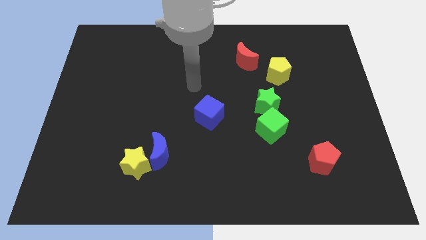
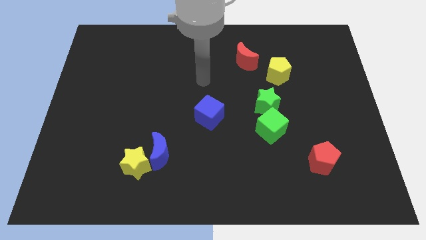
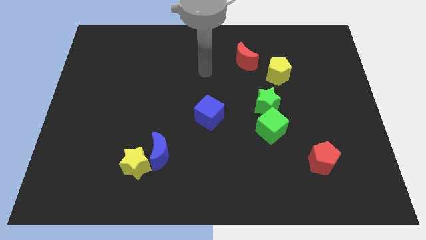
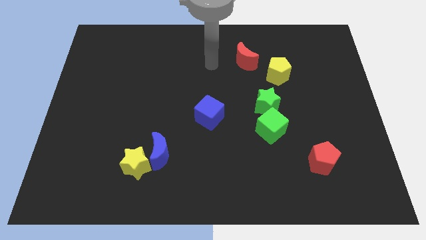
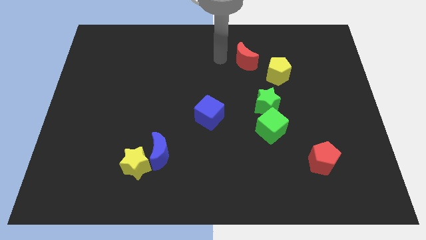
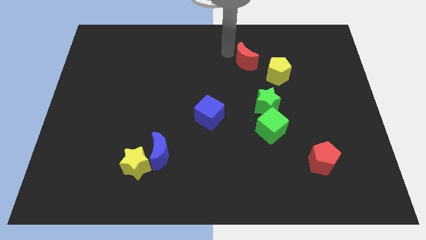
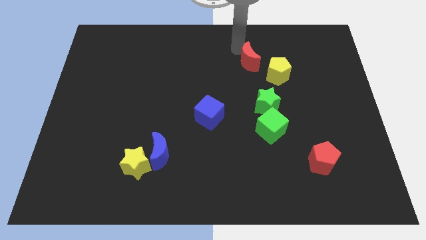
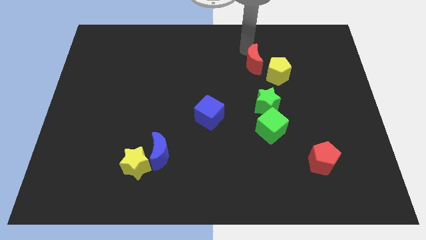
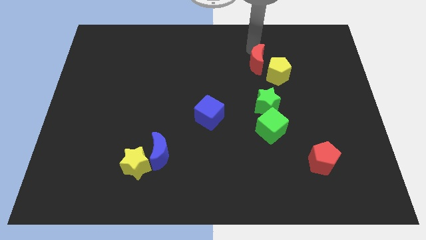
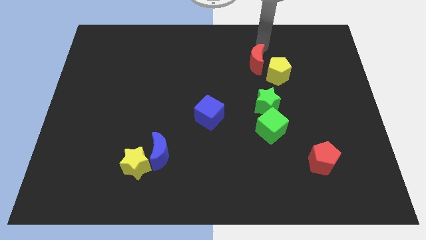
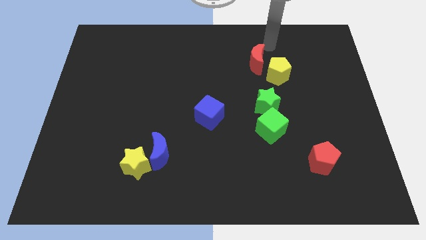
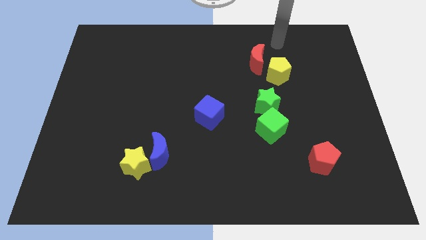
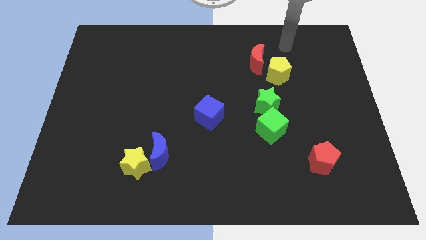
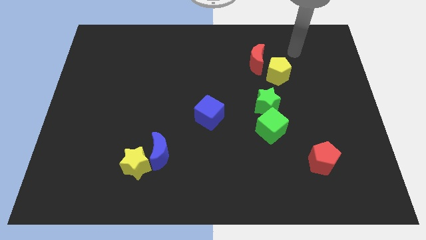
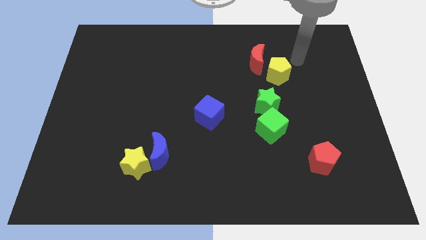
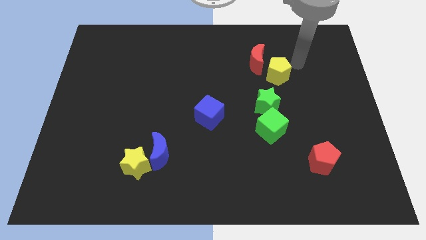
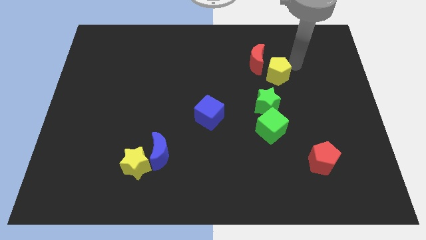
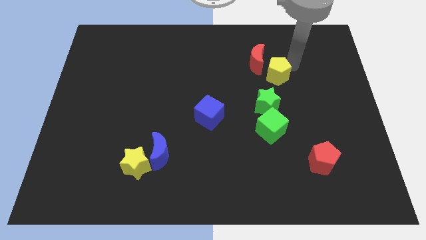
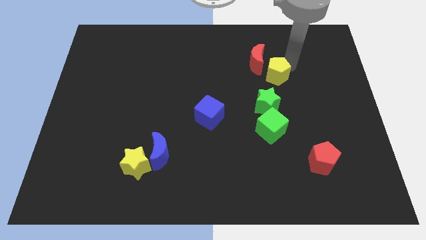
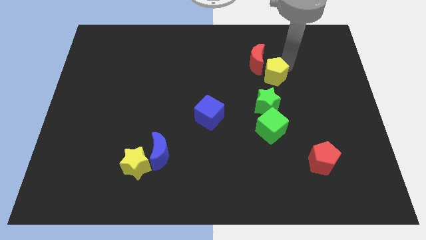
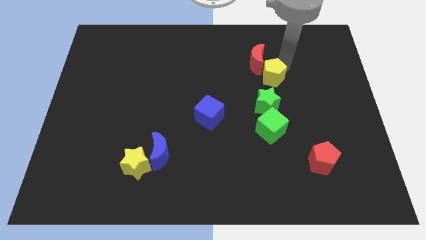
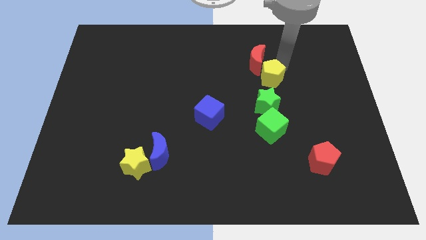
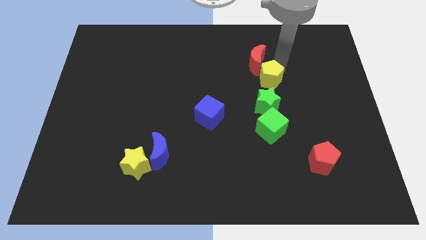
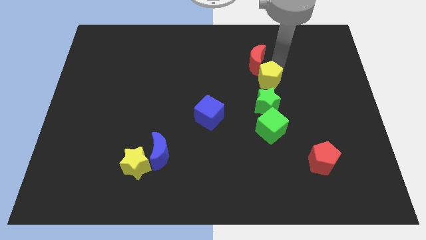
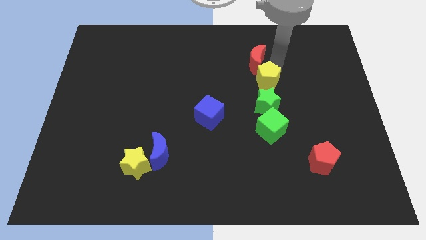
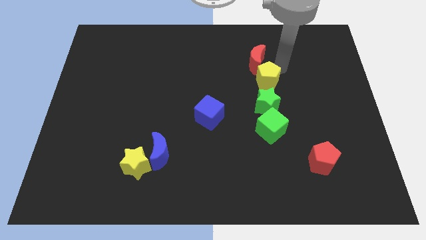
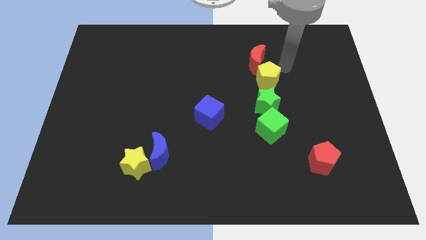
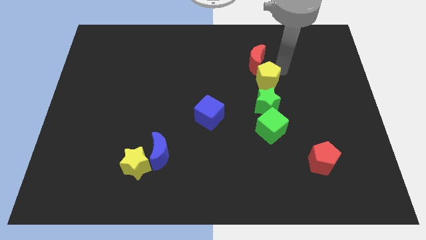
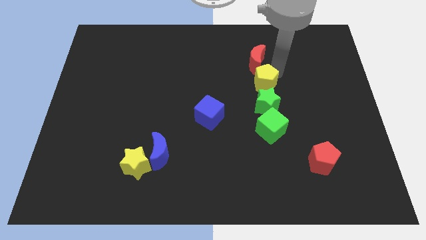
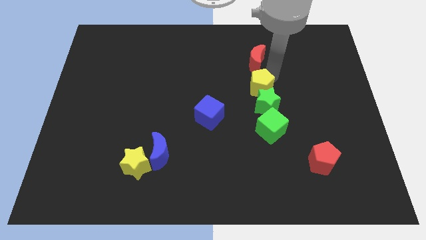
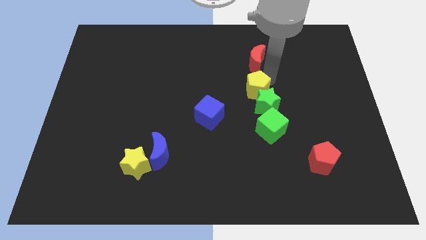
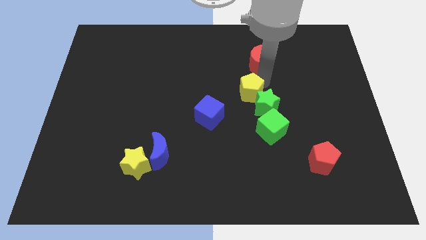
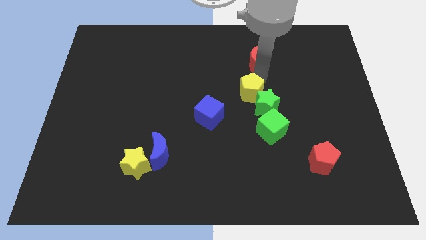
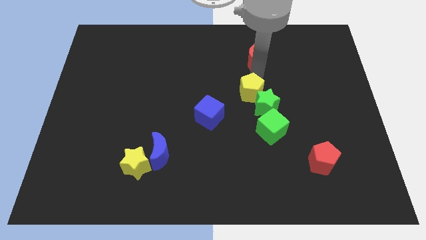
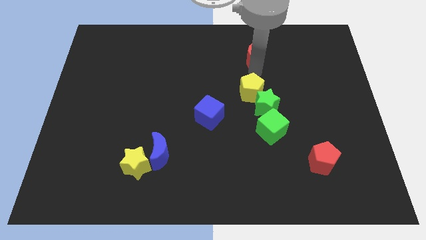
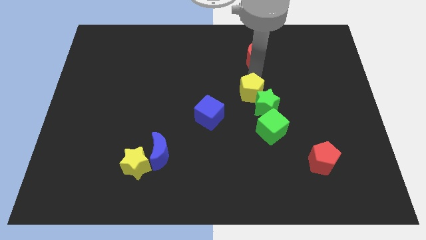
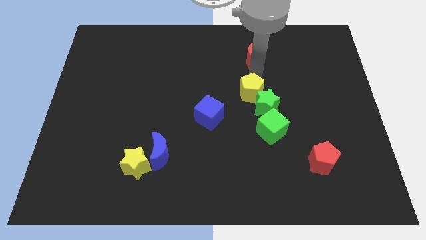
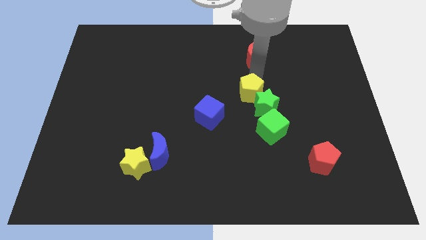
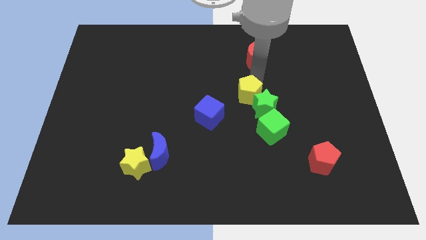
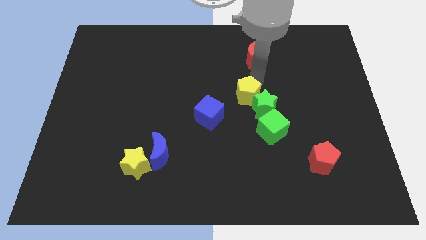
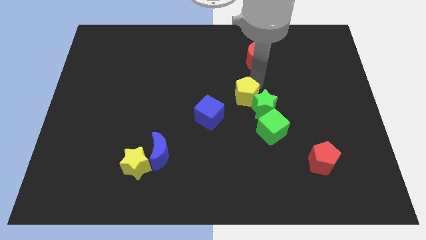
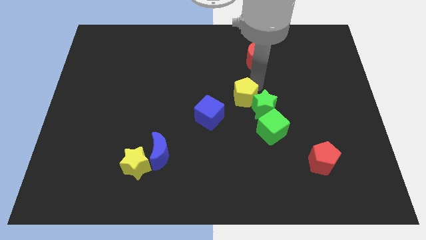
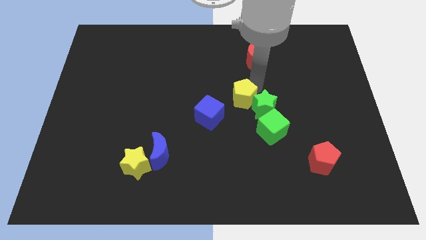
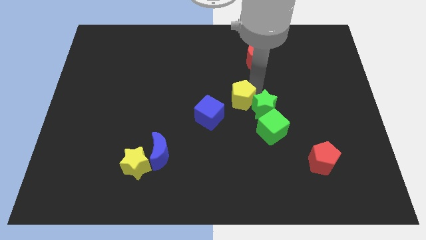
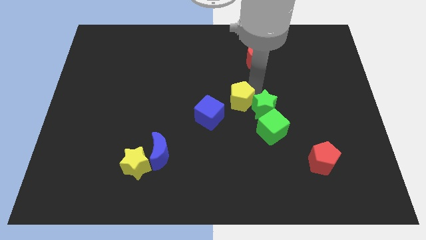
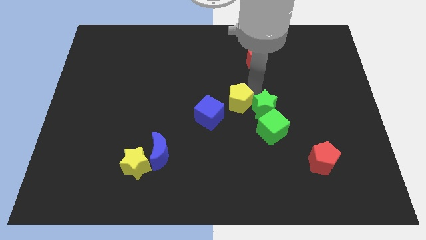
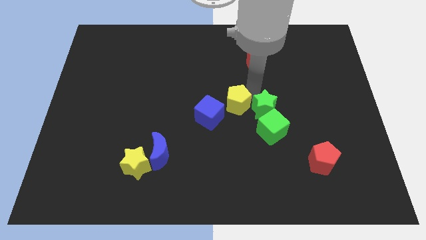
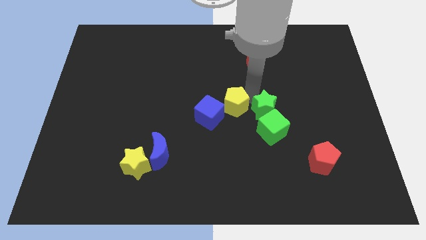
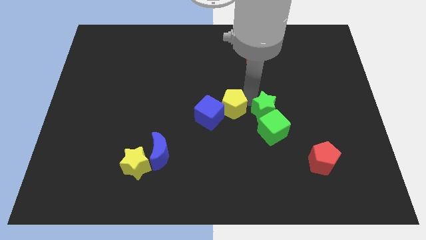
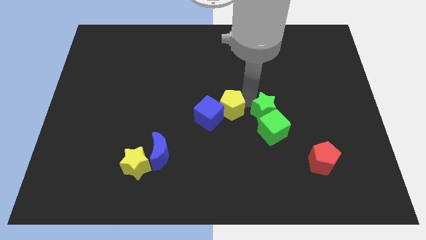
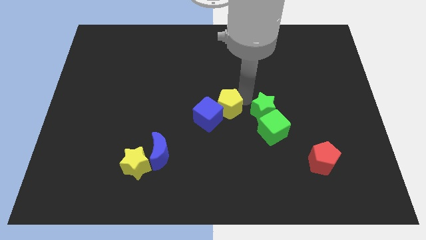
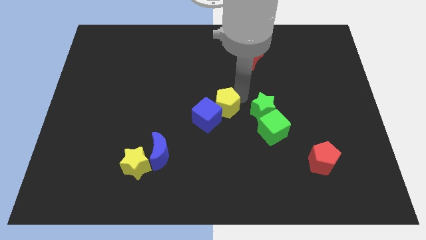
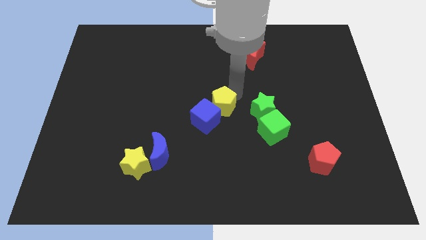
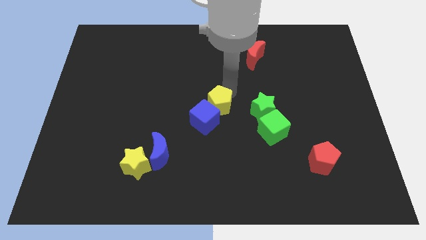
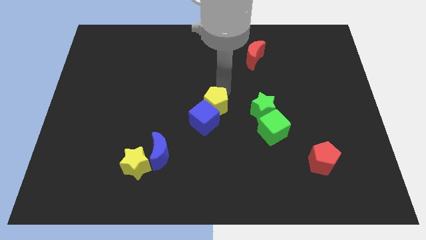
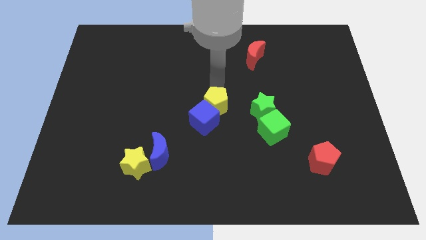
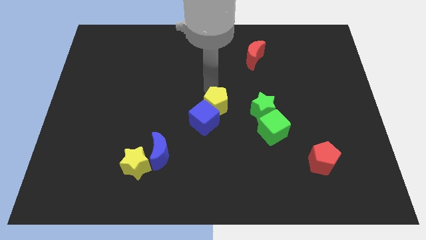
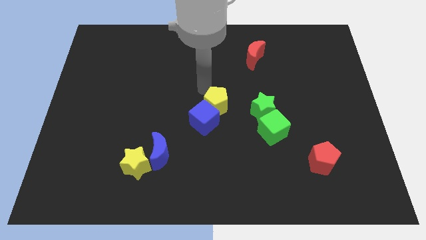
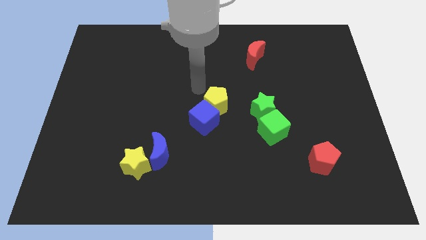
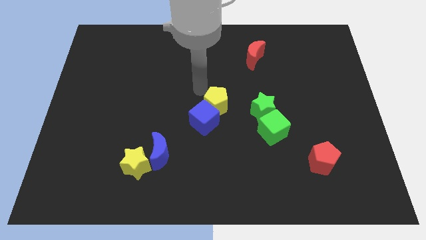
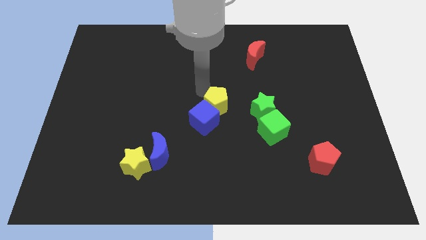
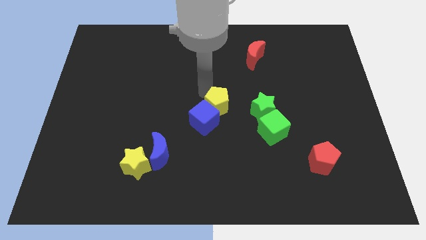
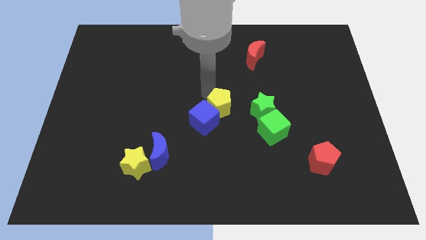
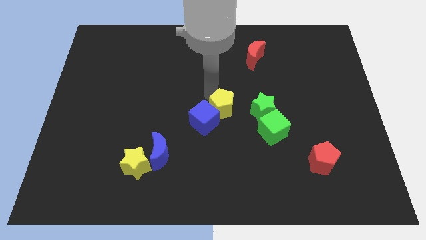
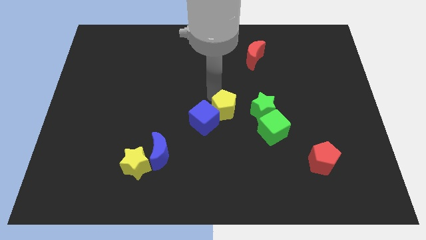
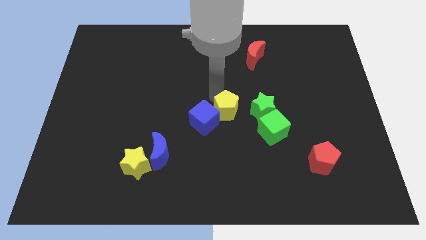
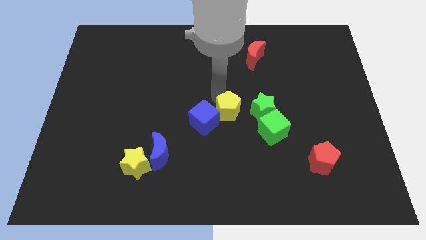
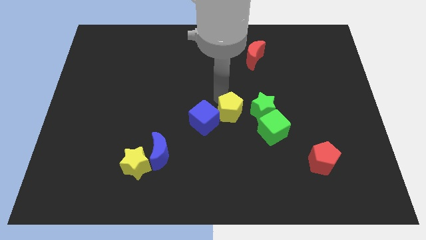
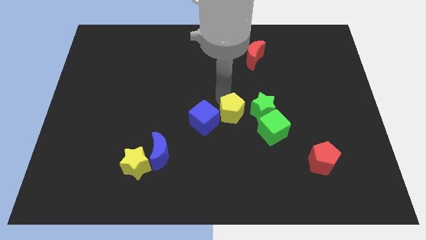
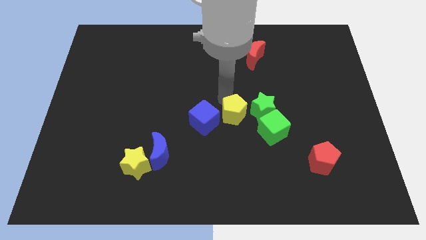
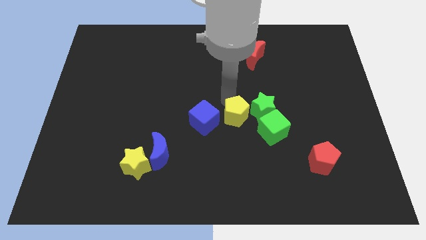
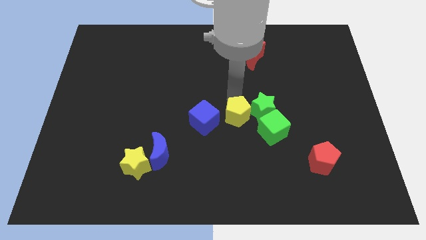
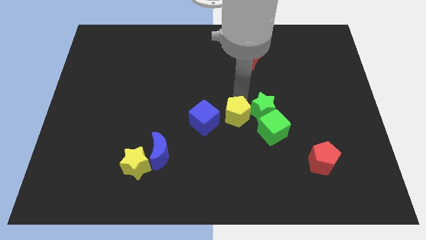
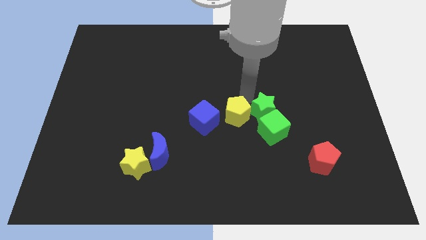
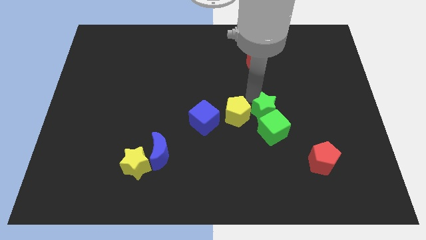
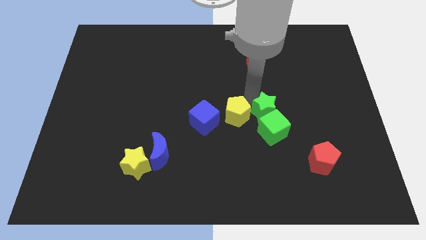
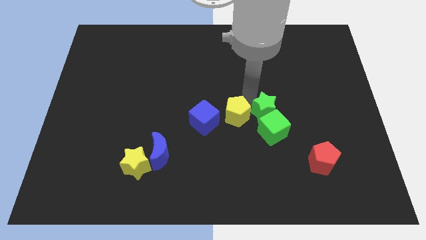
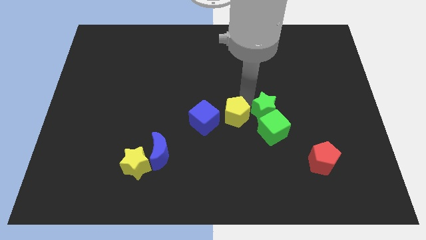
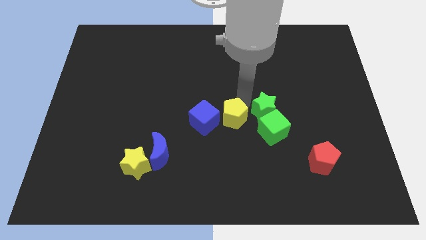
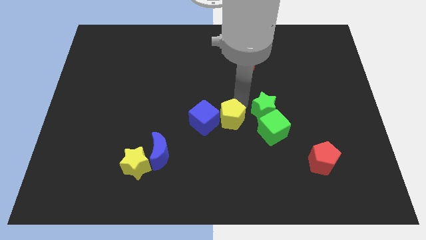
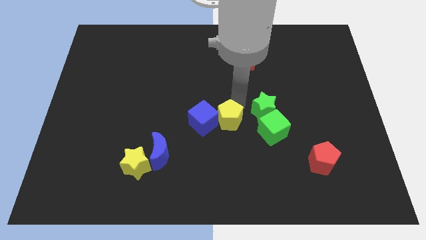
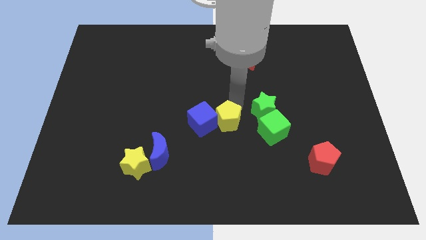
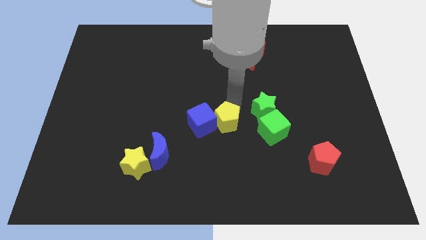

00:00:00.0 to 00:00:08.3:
push the yellow pentagon downwards and left
